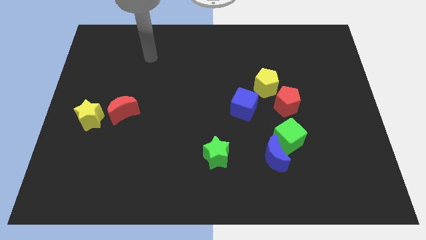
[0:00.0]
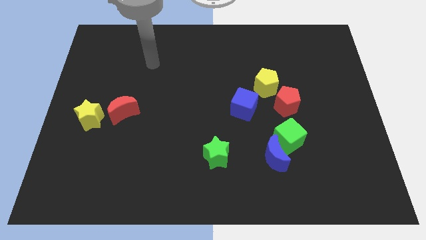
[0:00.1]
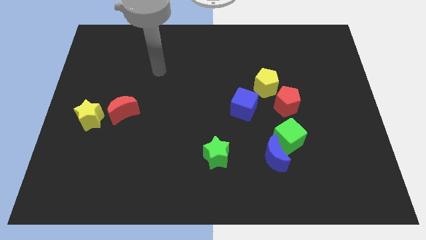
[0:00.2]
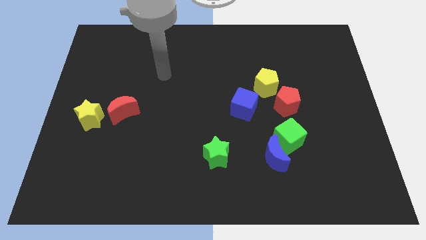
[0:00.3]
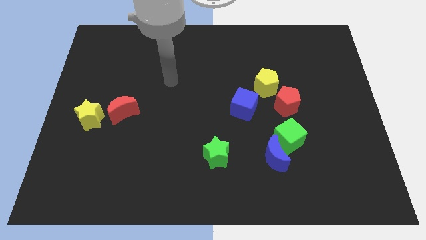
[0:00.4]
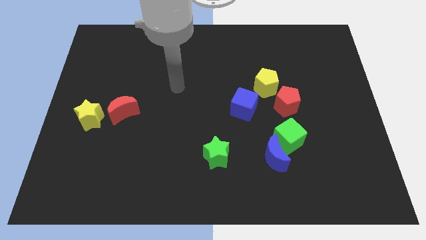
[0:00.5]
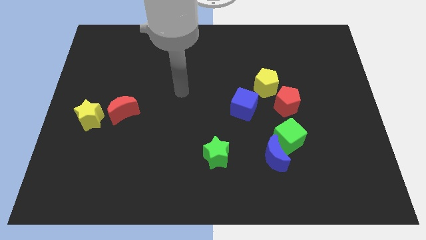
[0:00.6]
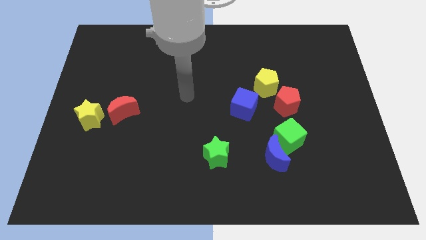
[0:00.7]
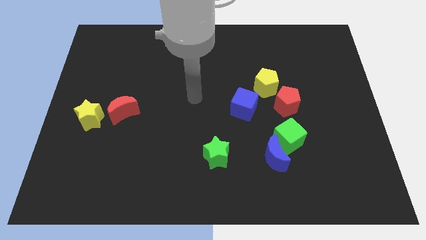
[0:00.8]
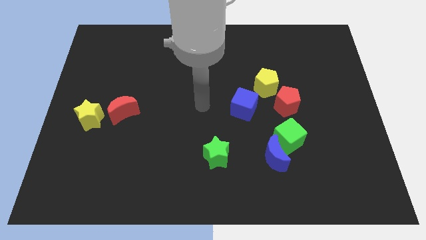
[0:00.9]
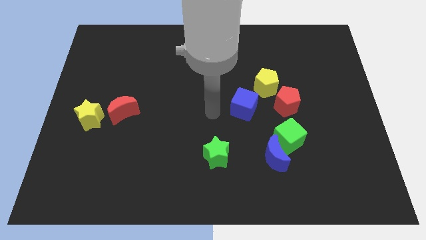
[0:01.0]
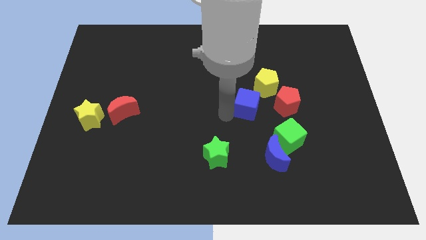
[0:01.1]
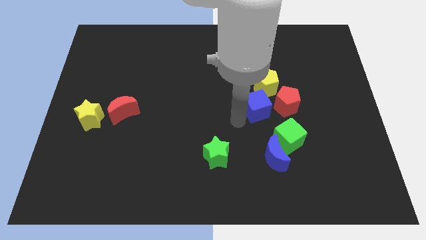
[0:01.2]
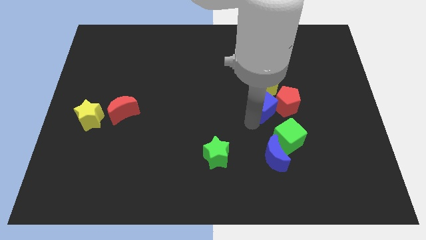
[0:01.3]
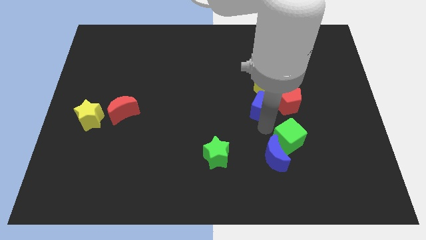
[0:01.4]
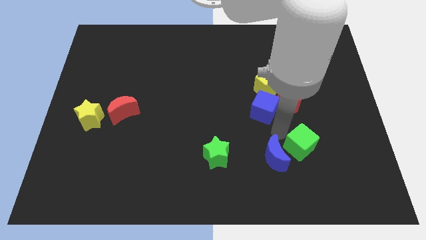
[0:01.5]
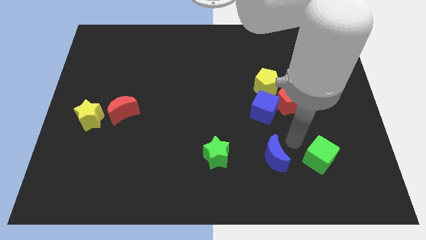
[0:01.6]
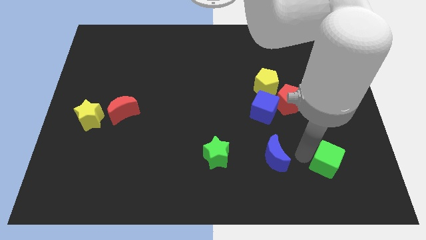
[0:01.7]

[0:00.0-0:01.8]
move the blue moon away from the green cube

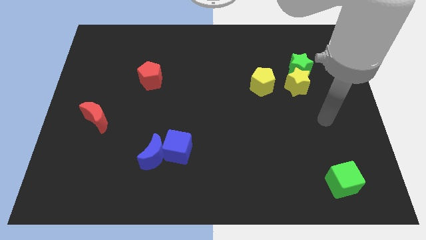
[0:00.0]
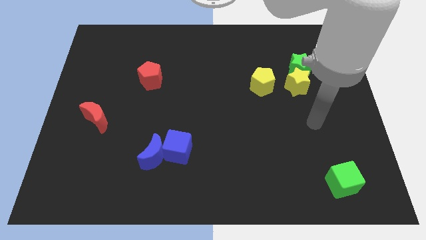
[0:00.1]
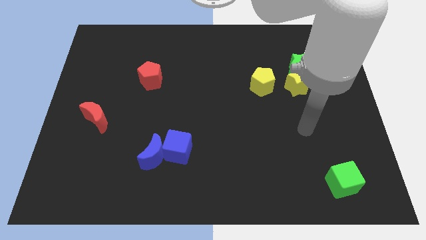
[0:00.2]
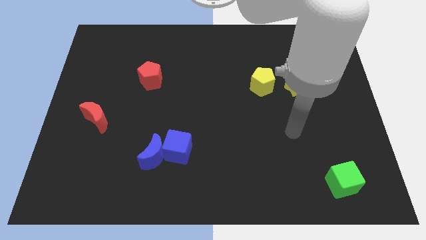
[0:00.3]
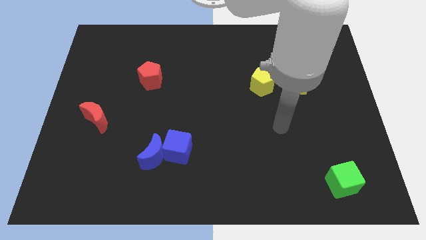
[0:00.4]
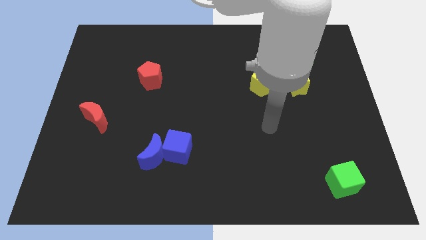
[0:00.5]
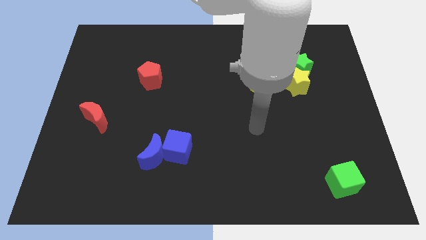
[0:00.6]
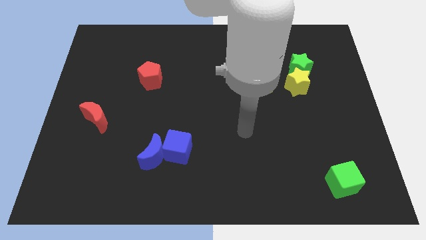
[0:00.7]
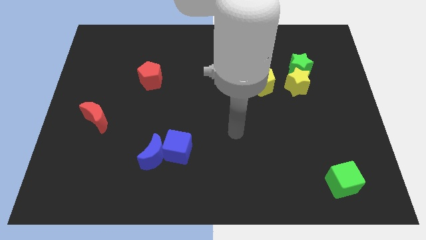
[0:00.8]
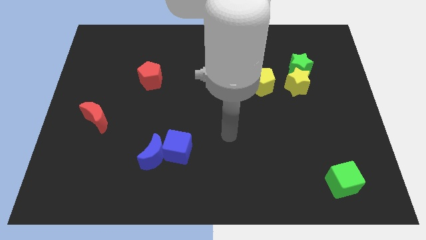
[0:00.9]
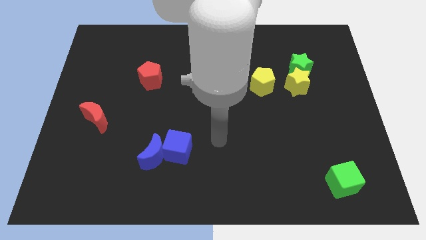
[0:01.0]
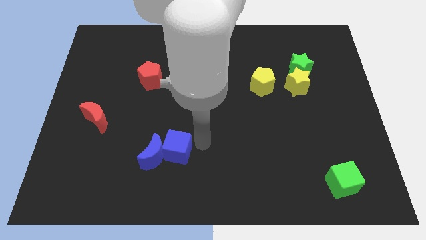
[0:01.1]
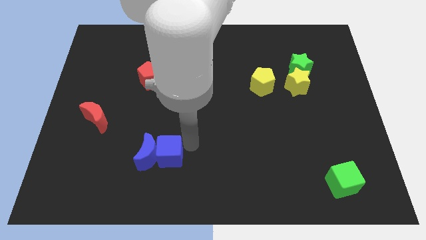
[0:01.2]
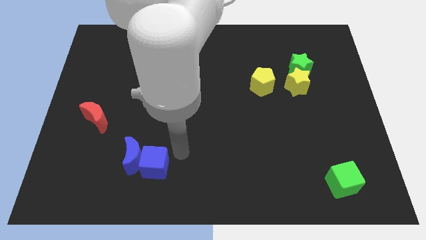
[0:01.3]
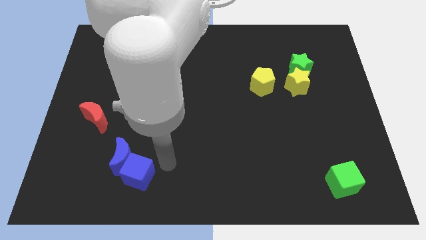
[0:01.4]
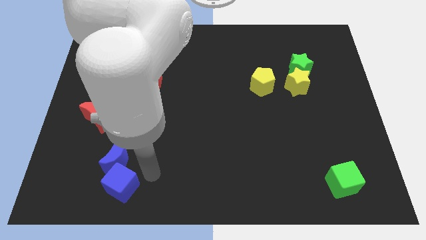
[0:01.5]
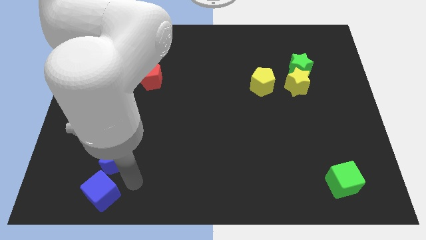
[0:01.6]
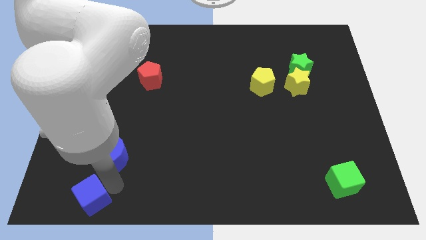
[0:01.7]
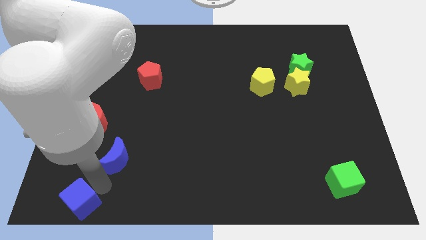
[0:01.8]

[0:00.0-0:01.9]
move the blue moon away from the blue cube

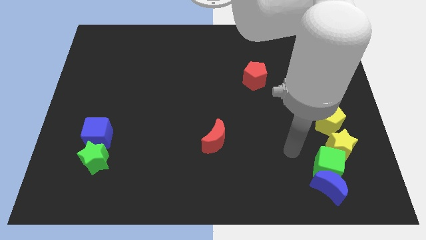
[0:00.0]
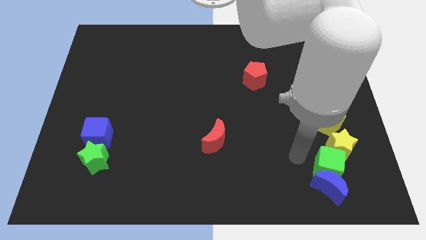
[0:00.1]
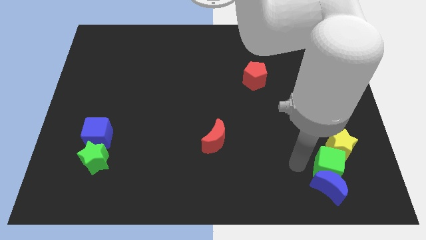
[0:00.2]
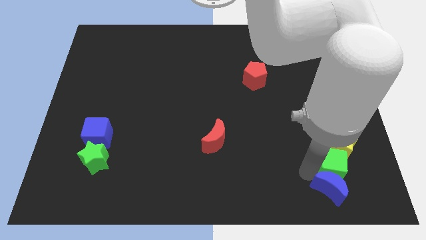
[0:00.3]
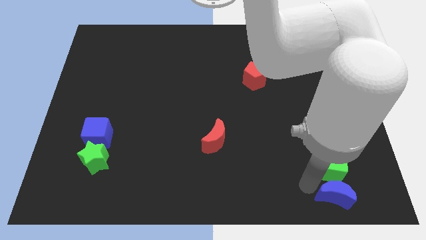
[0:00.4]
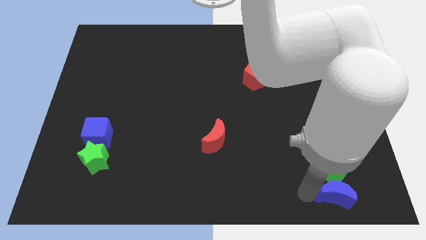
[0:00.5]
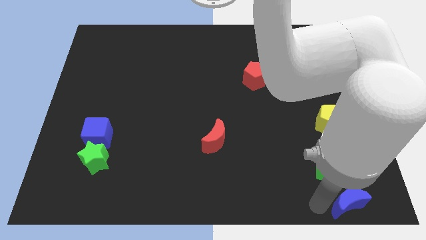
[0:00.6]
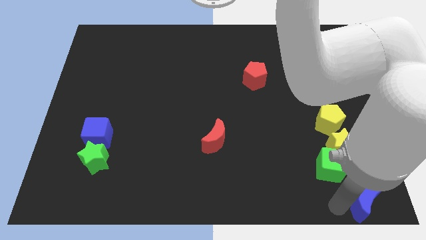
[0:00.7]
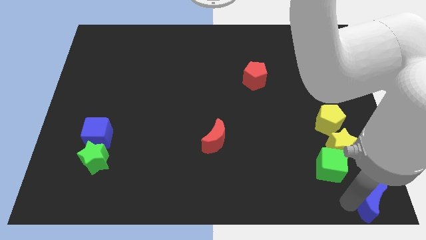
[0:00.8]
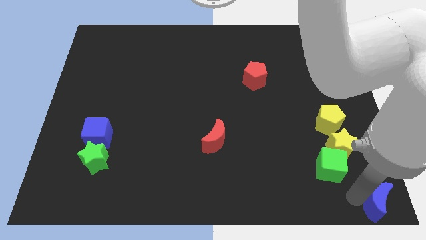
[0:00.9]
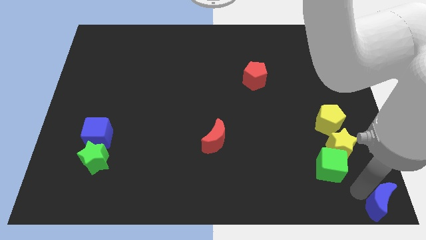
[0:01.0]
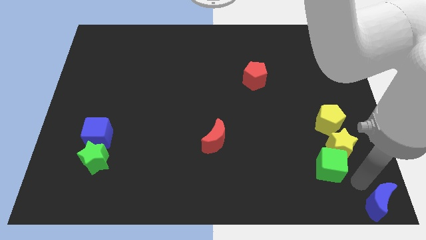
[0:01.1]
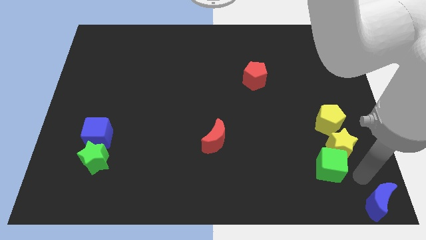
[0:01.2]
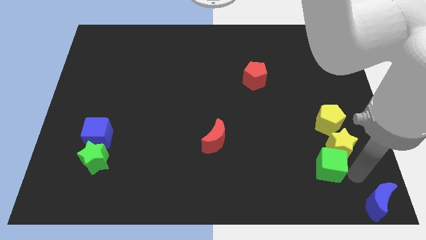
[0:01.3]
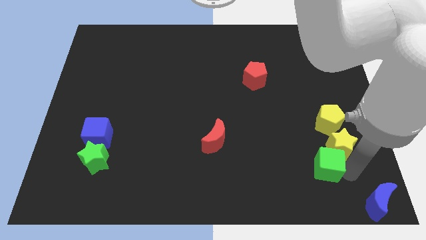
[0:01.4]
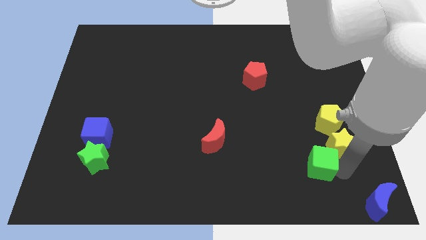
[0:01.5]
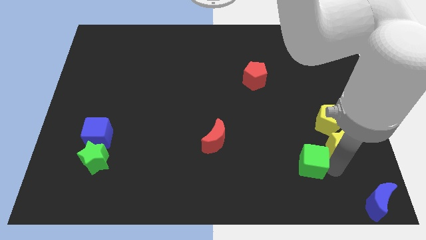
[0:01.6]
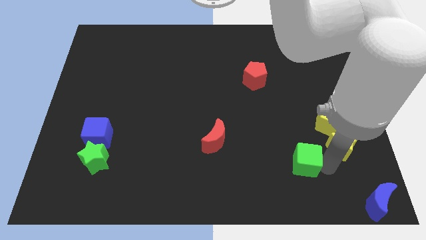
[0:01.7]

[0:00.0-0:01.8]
separate the green cube from the blue moon and yellow star

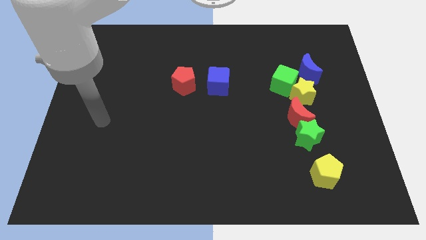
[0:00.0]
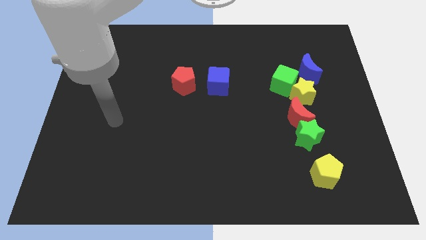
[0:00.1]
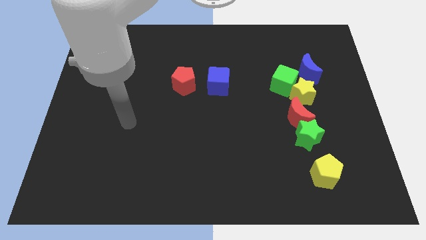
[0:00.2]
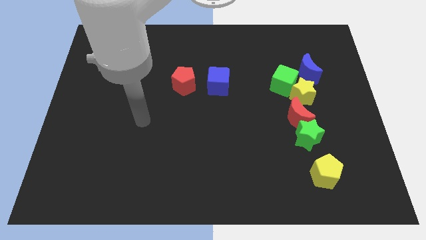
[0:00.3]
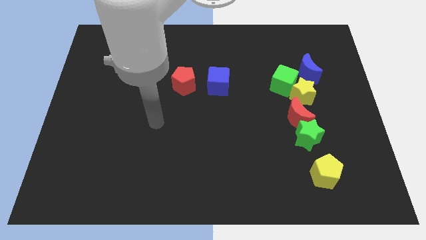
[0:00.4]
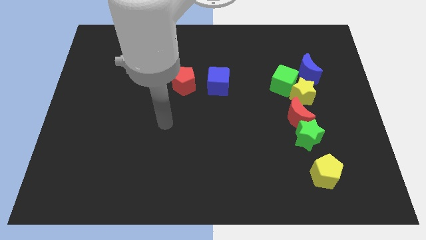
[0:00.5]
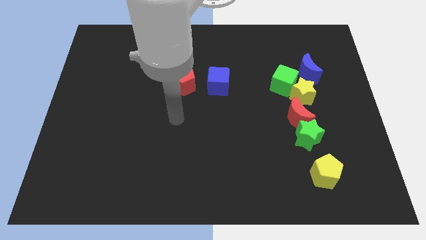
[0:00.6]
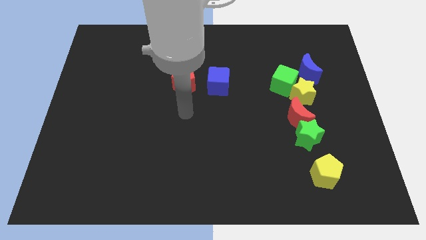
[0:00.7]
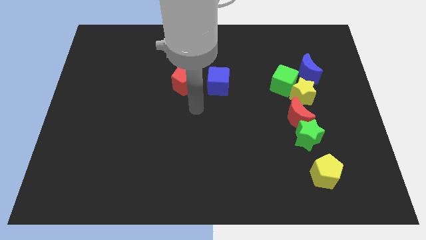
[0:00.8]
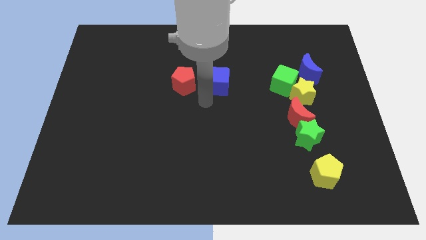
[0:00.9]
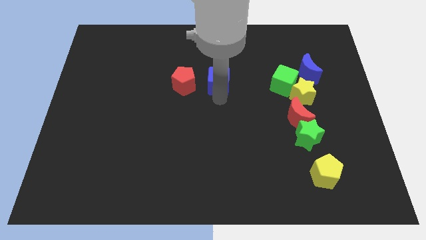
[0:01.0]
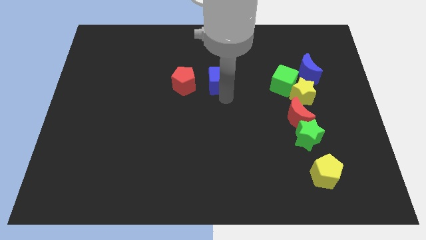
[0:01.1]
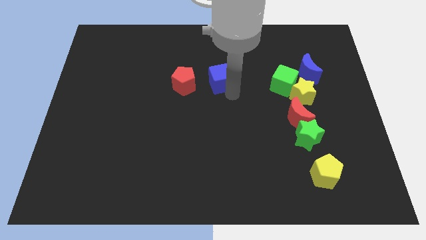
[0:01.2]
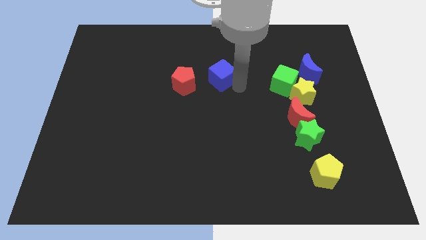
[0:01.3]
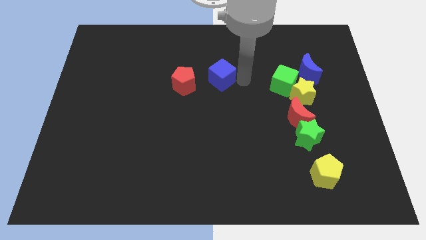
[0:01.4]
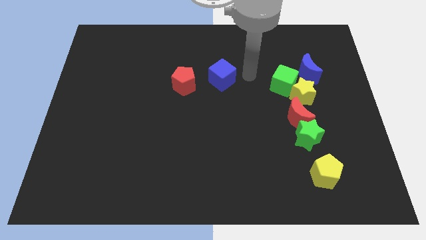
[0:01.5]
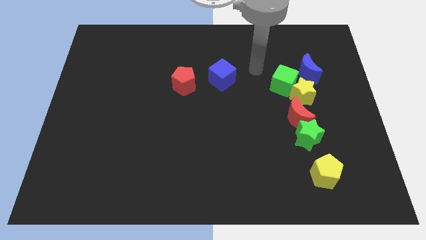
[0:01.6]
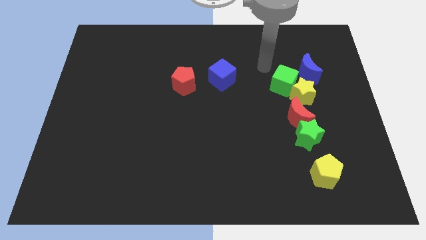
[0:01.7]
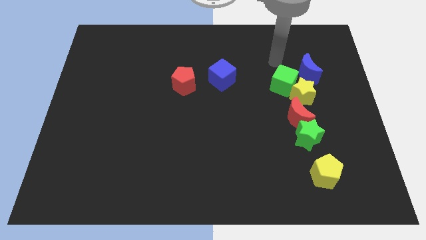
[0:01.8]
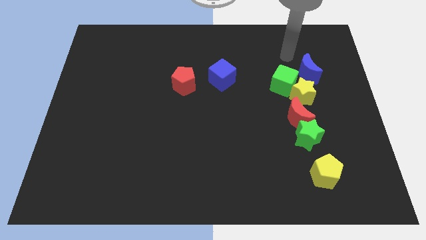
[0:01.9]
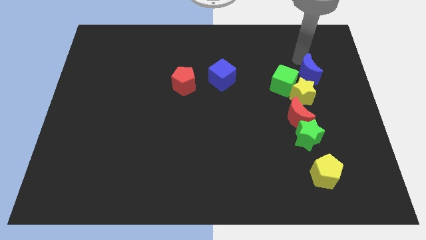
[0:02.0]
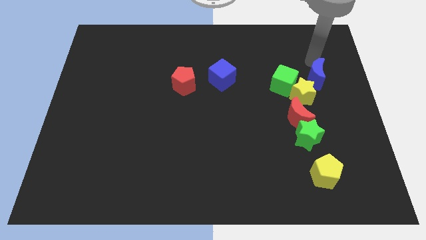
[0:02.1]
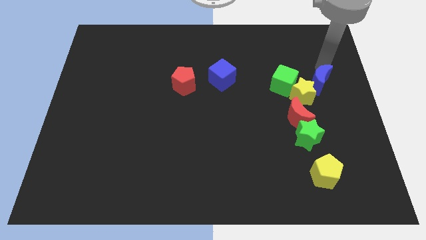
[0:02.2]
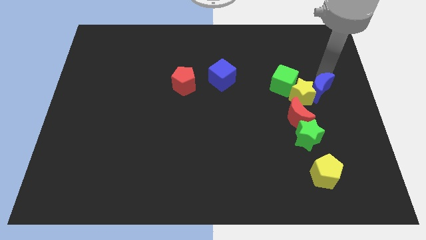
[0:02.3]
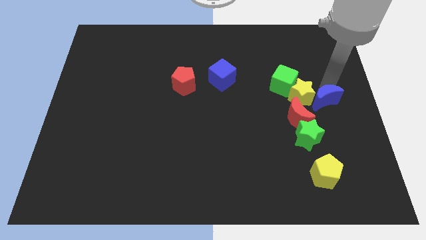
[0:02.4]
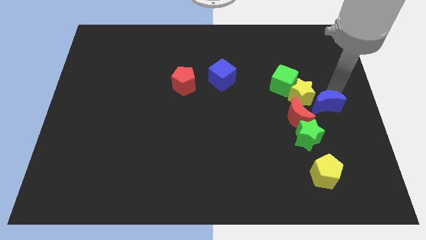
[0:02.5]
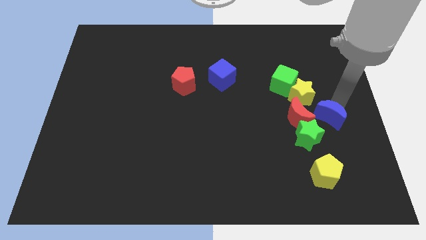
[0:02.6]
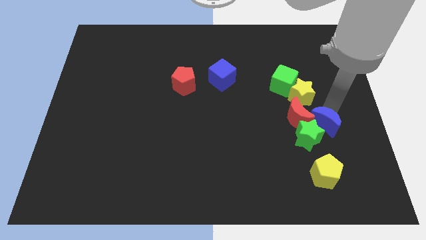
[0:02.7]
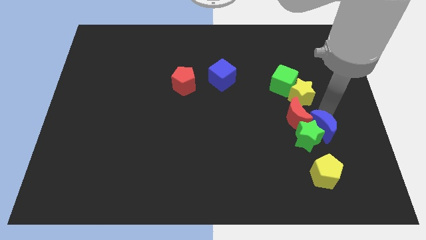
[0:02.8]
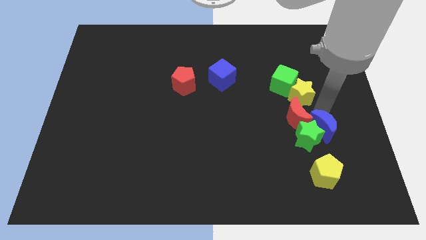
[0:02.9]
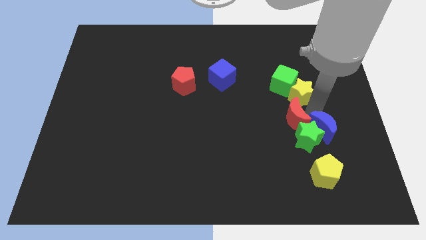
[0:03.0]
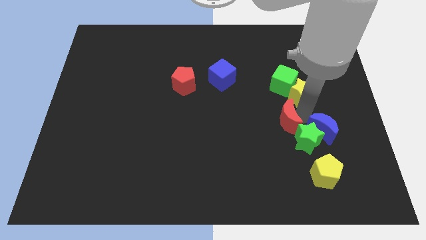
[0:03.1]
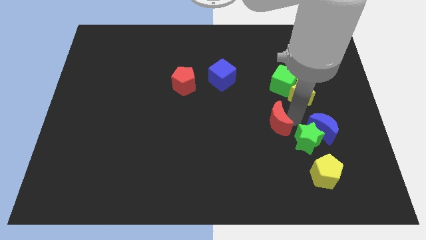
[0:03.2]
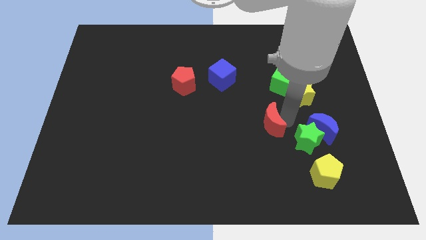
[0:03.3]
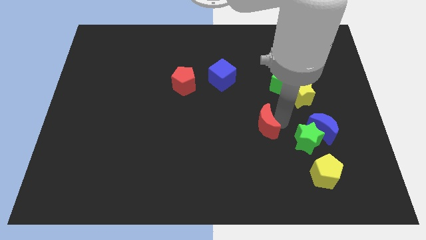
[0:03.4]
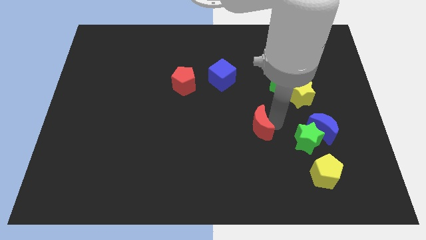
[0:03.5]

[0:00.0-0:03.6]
pull the red moon apart from the green star and yellow star

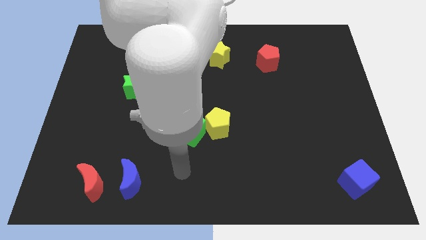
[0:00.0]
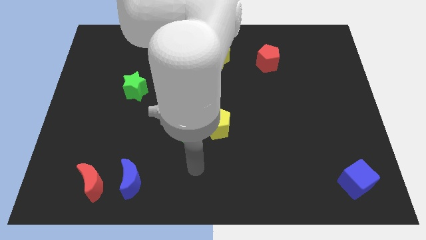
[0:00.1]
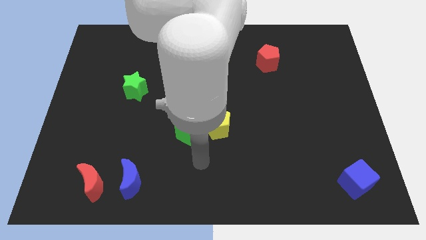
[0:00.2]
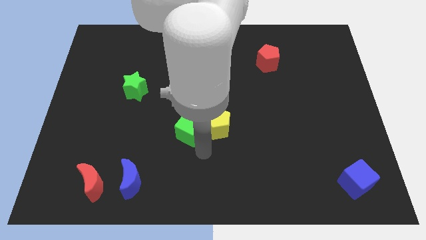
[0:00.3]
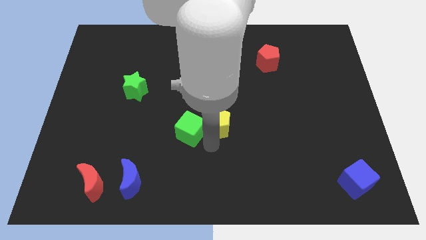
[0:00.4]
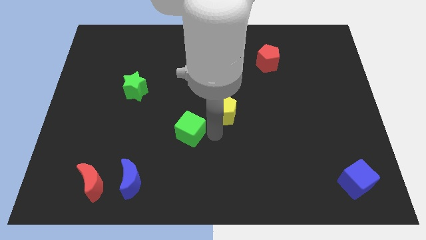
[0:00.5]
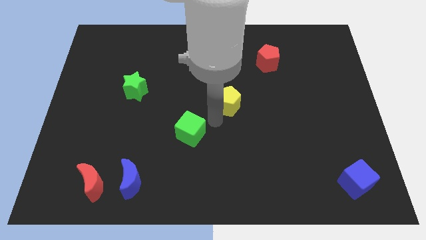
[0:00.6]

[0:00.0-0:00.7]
separate the green cube from the yellow pentagon
